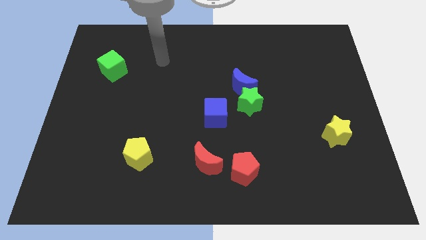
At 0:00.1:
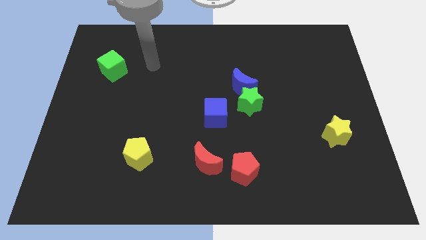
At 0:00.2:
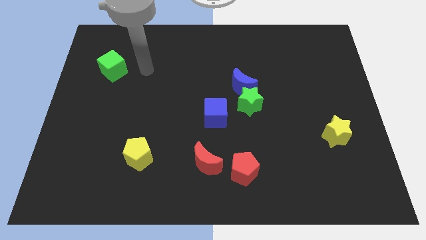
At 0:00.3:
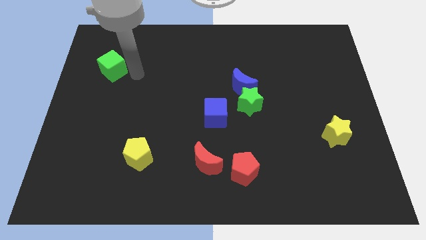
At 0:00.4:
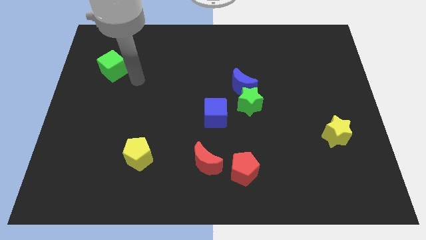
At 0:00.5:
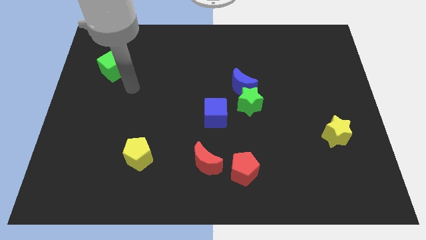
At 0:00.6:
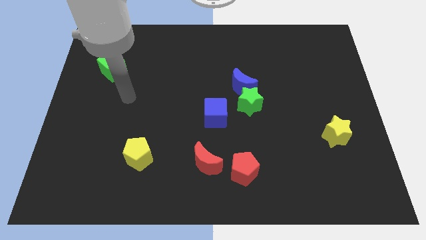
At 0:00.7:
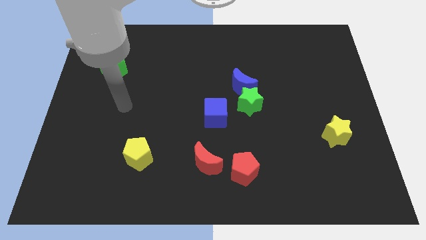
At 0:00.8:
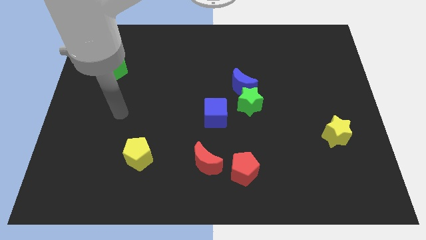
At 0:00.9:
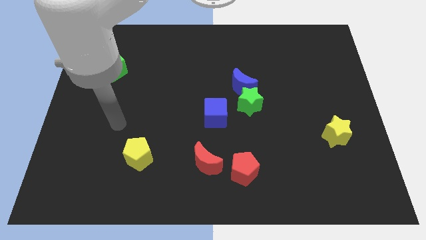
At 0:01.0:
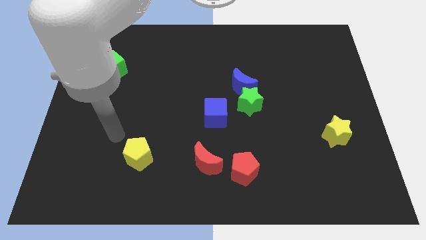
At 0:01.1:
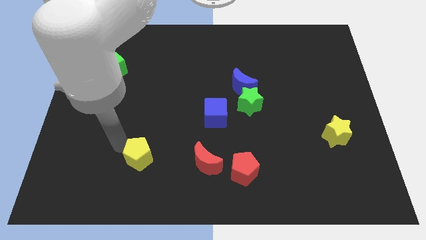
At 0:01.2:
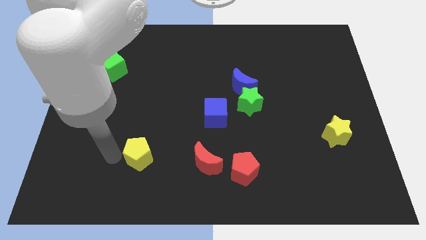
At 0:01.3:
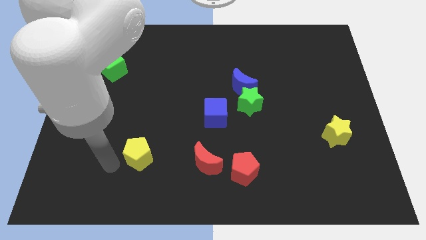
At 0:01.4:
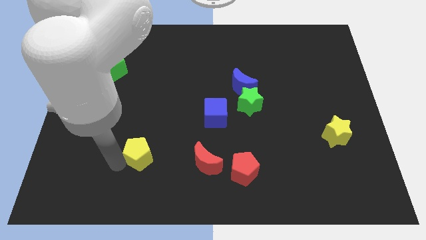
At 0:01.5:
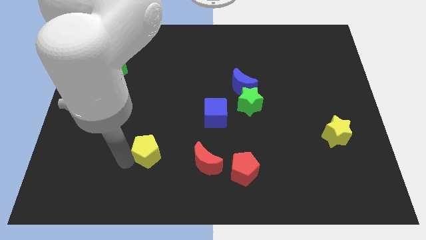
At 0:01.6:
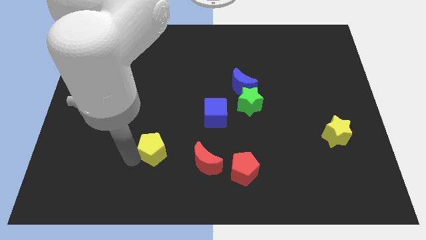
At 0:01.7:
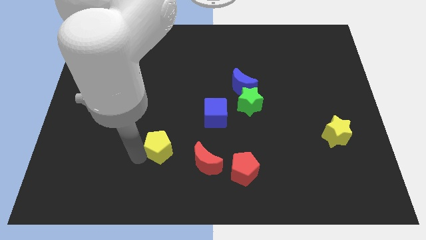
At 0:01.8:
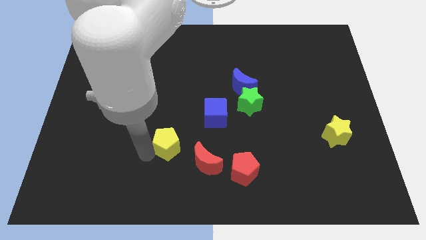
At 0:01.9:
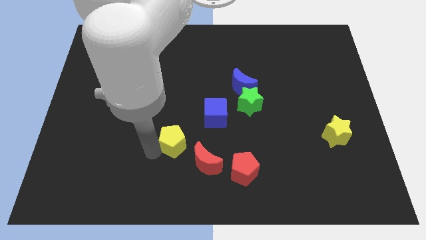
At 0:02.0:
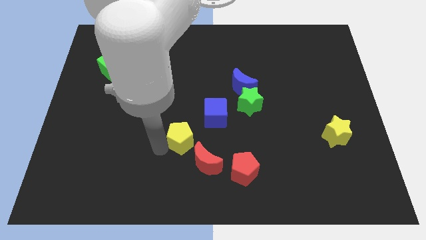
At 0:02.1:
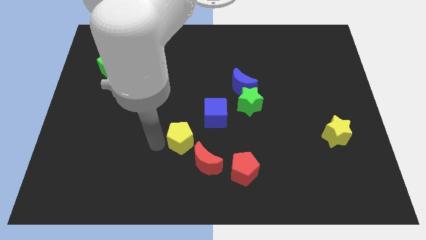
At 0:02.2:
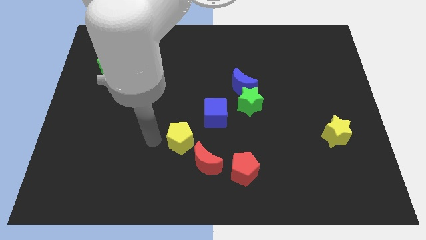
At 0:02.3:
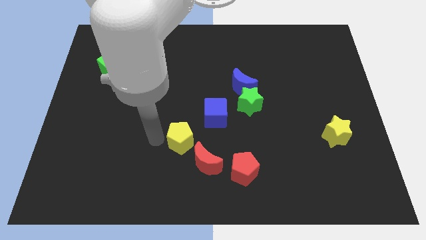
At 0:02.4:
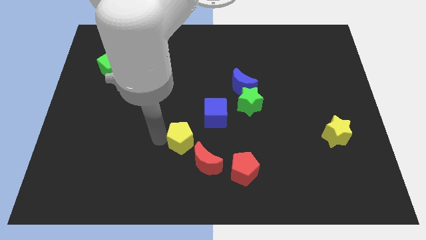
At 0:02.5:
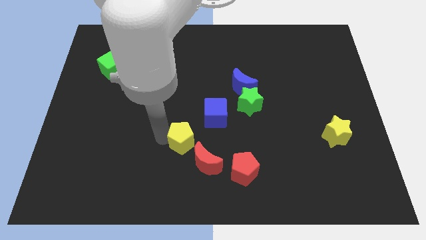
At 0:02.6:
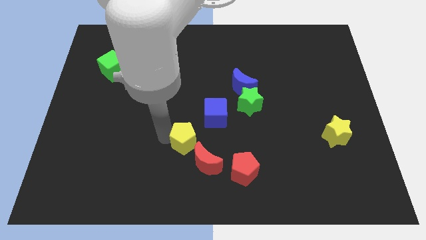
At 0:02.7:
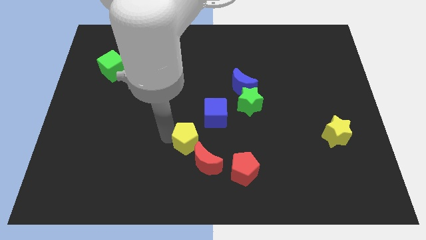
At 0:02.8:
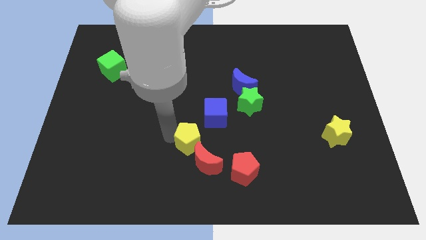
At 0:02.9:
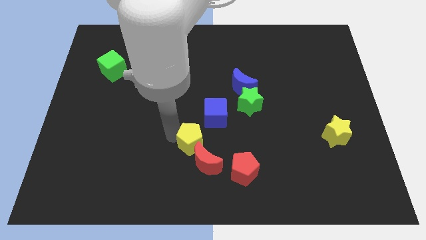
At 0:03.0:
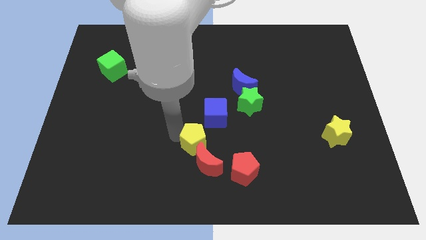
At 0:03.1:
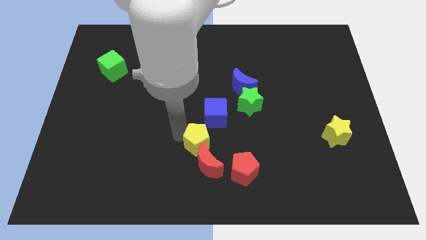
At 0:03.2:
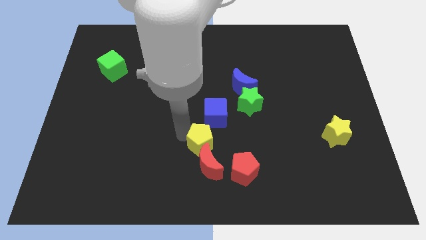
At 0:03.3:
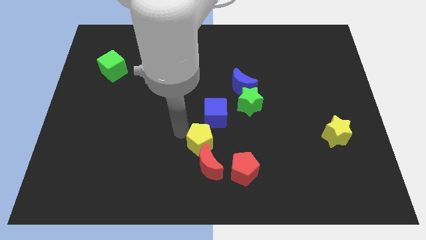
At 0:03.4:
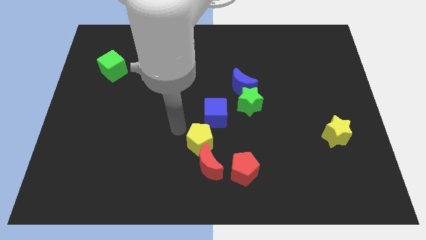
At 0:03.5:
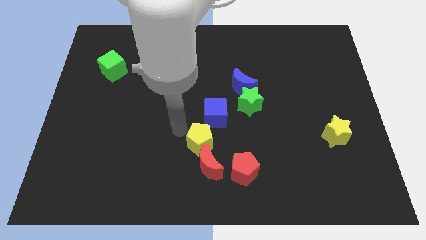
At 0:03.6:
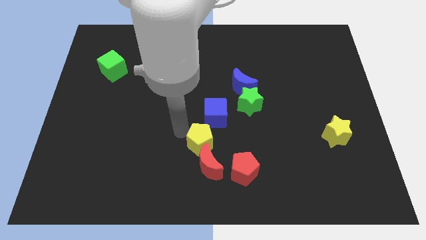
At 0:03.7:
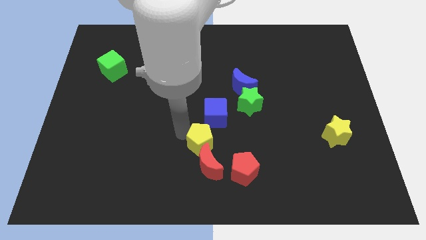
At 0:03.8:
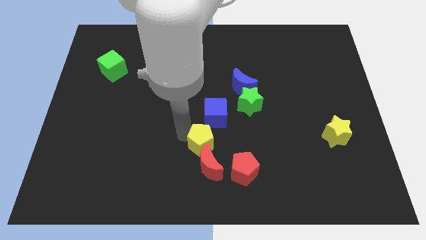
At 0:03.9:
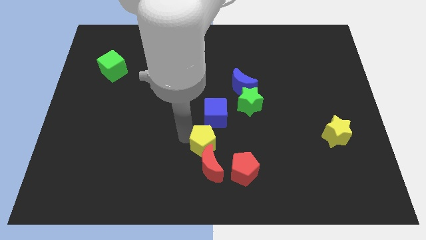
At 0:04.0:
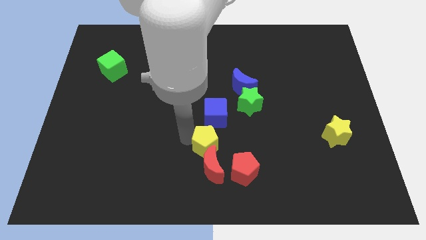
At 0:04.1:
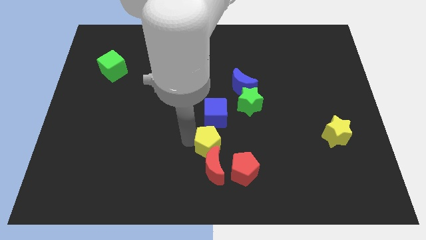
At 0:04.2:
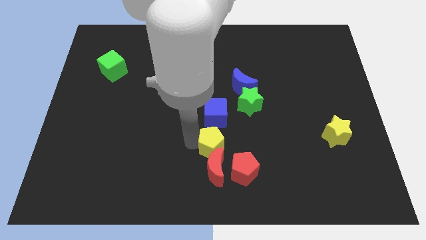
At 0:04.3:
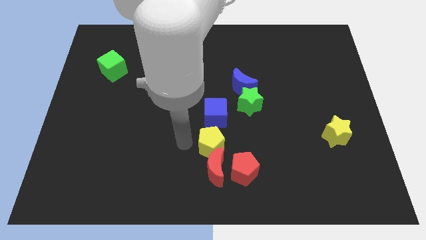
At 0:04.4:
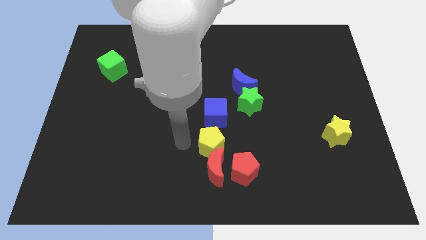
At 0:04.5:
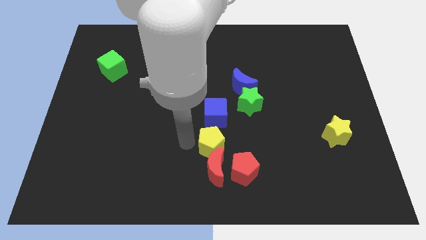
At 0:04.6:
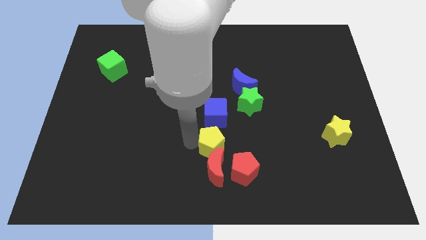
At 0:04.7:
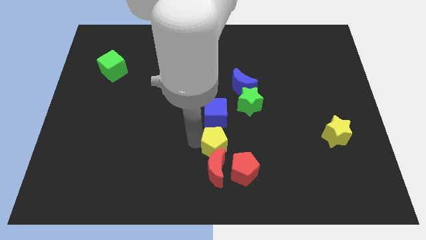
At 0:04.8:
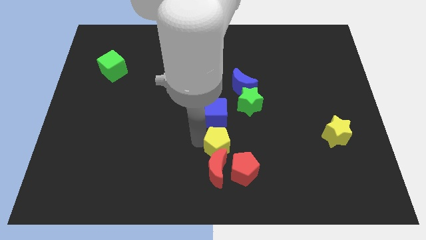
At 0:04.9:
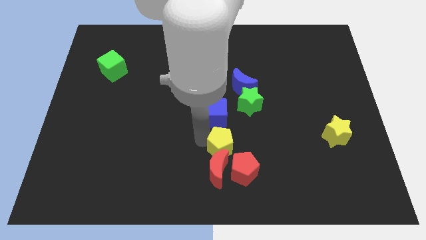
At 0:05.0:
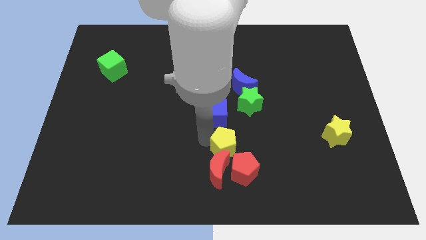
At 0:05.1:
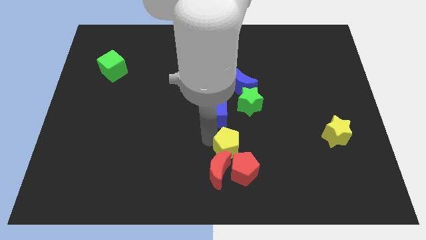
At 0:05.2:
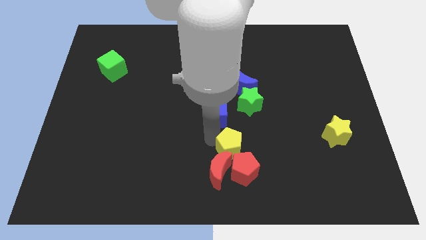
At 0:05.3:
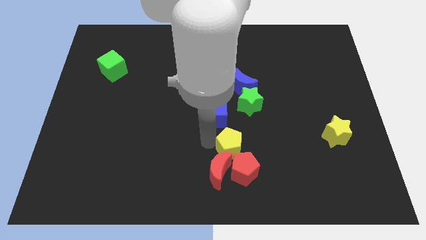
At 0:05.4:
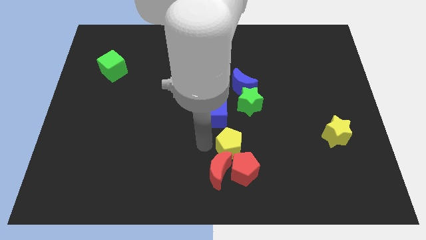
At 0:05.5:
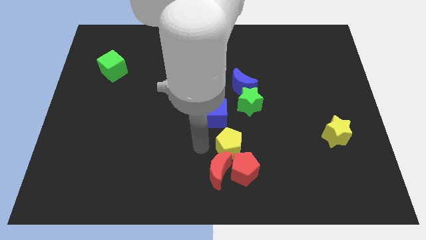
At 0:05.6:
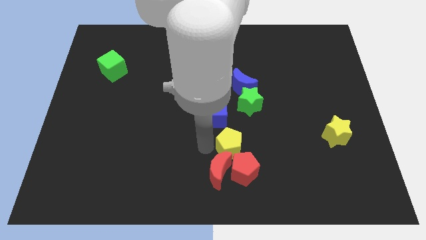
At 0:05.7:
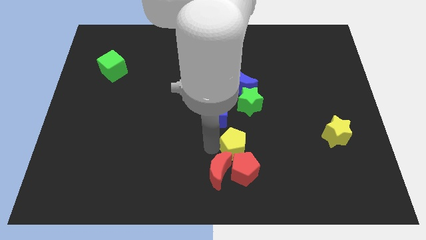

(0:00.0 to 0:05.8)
push the yellow pentagon to the right

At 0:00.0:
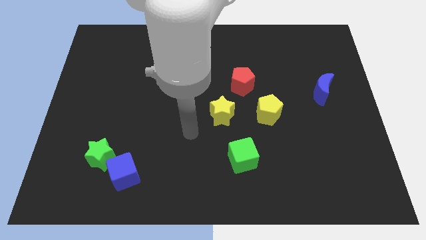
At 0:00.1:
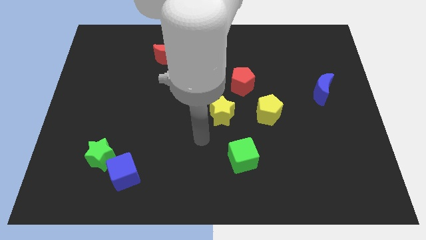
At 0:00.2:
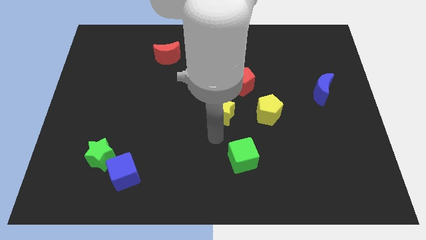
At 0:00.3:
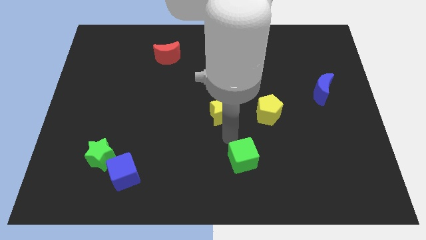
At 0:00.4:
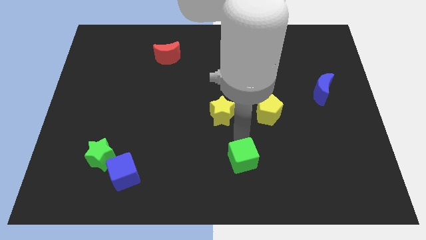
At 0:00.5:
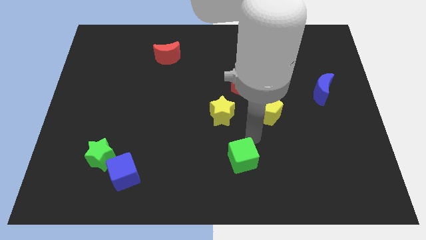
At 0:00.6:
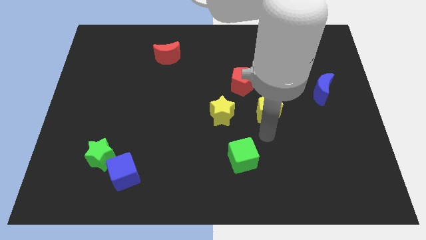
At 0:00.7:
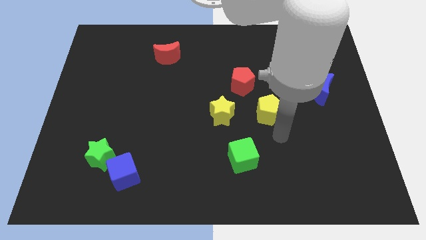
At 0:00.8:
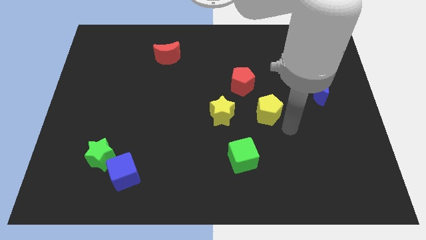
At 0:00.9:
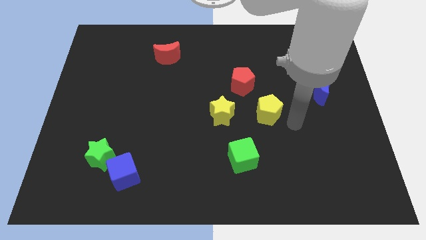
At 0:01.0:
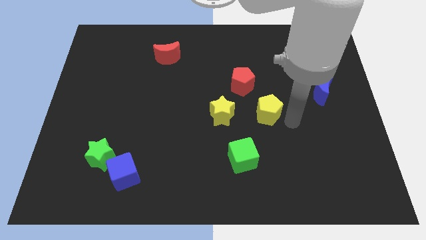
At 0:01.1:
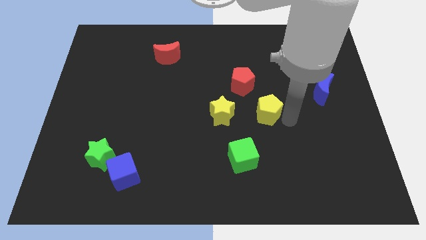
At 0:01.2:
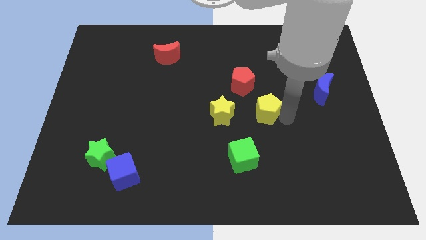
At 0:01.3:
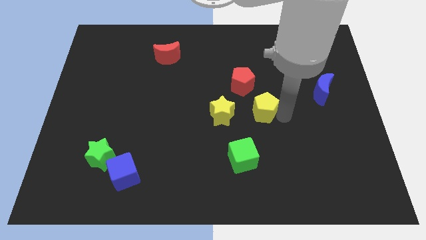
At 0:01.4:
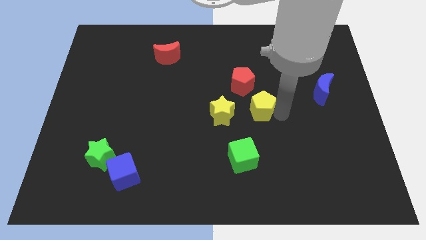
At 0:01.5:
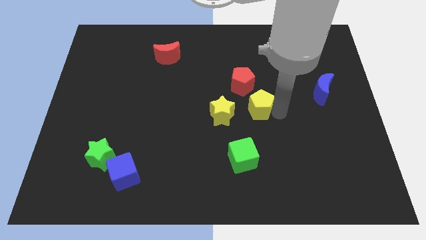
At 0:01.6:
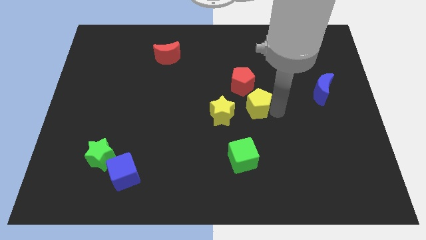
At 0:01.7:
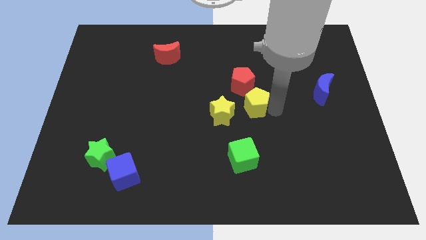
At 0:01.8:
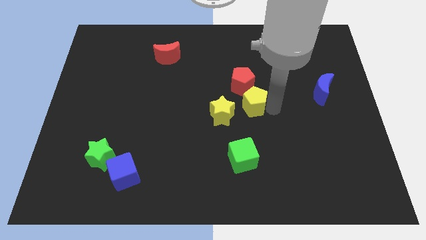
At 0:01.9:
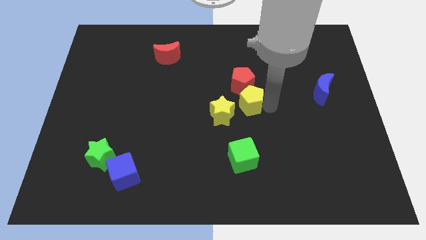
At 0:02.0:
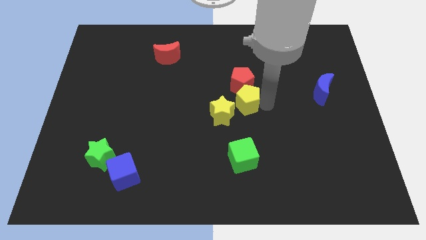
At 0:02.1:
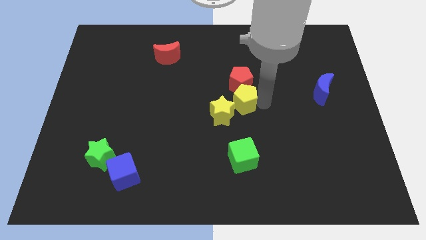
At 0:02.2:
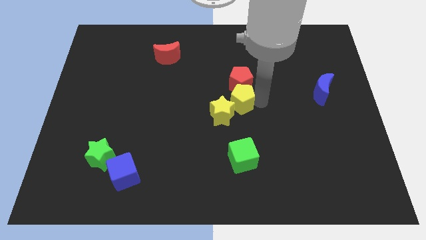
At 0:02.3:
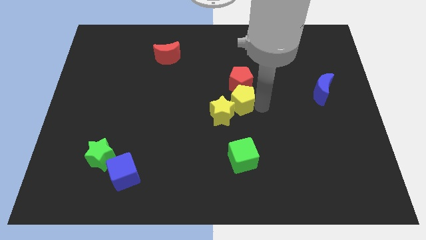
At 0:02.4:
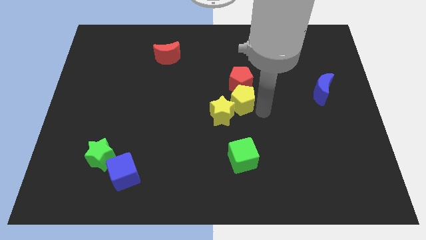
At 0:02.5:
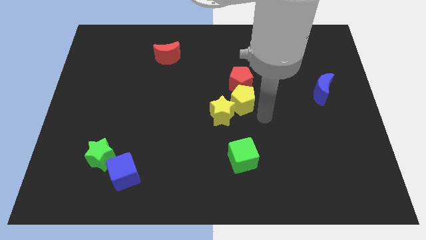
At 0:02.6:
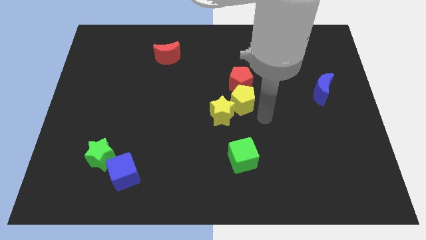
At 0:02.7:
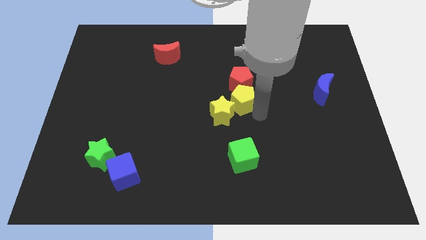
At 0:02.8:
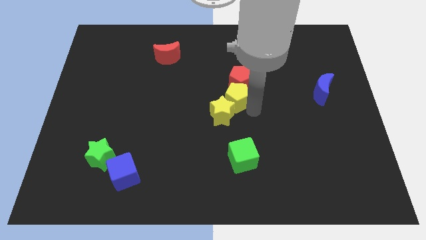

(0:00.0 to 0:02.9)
slide the yellow pentagon up and left diagonally slightly
